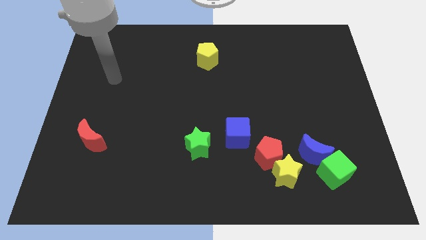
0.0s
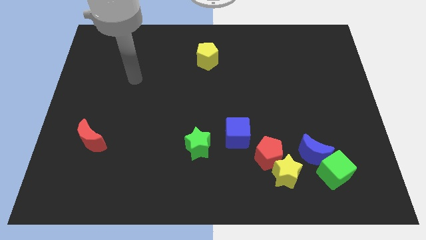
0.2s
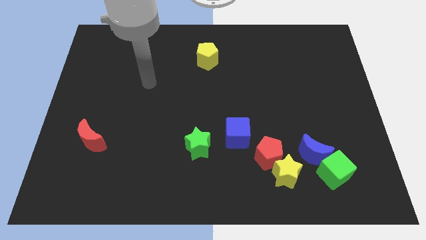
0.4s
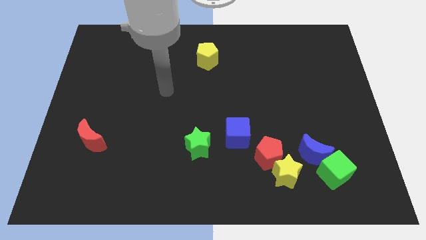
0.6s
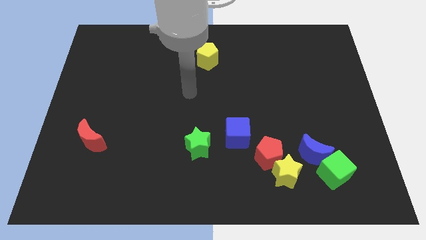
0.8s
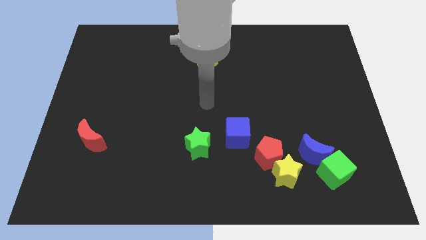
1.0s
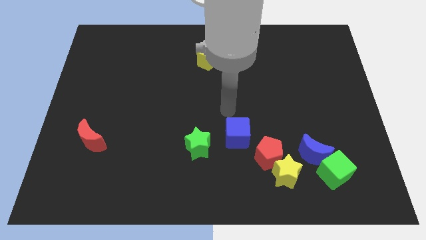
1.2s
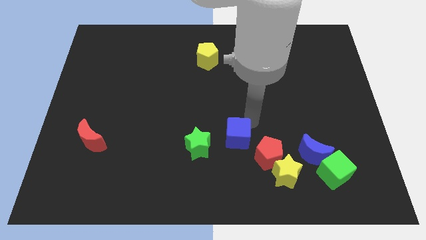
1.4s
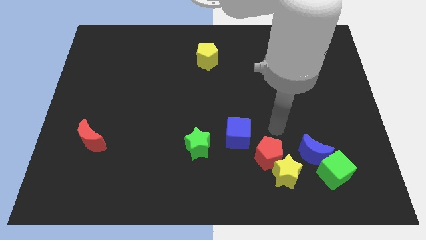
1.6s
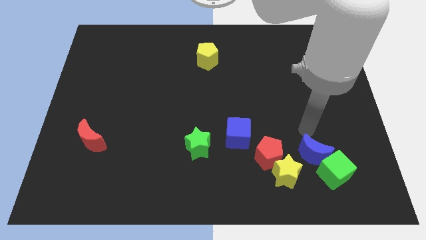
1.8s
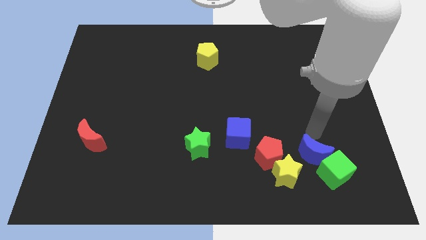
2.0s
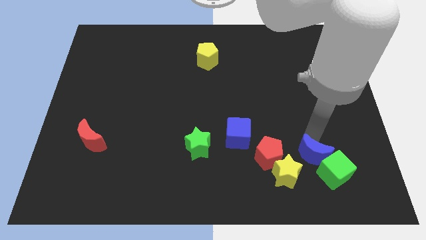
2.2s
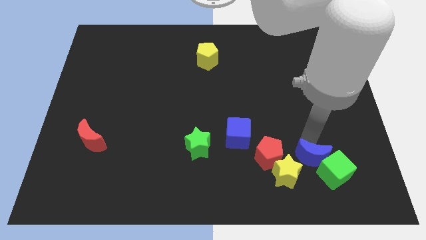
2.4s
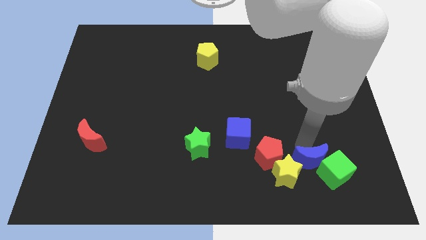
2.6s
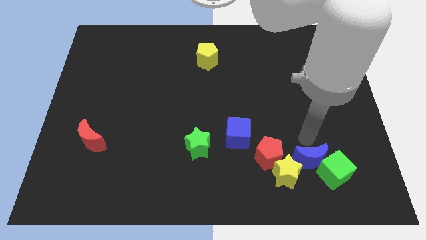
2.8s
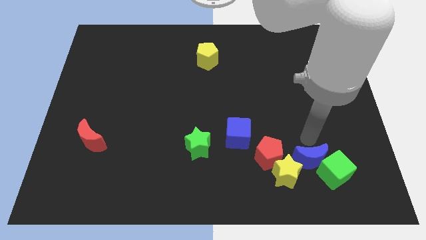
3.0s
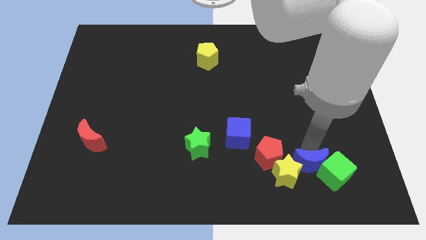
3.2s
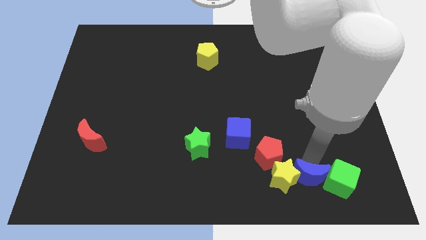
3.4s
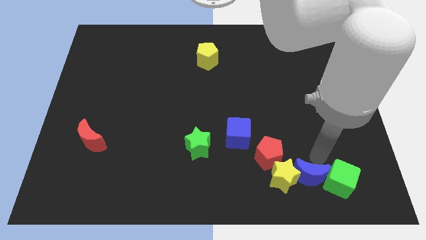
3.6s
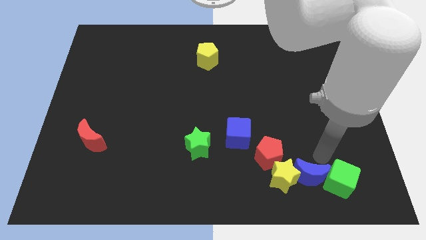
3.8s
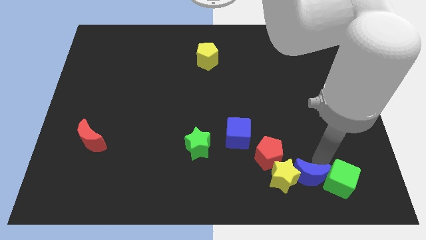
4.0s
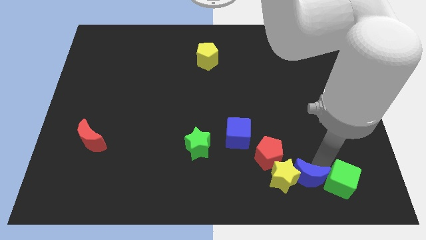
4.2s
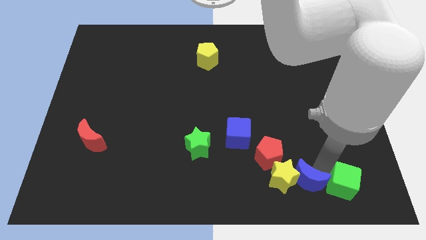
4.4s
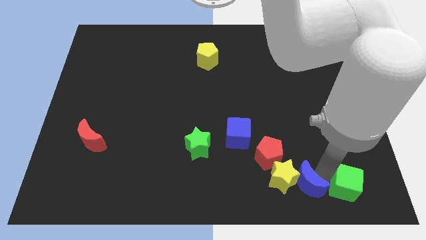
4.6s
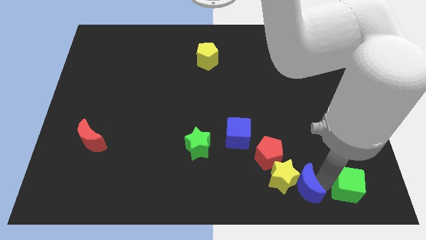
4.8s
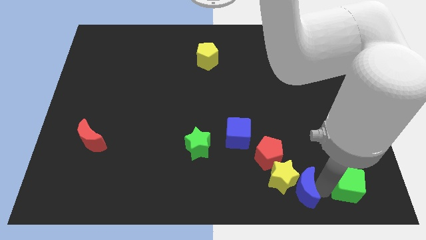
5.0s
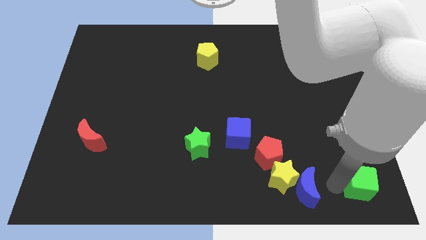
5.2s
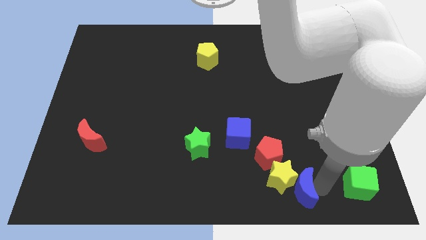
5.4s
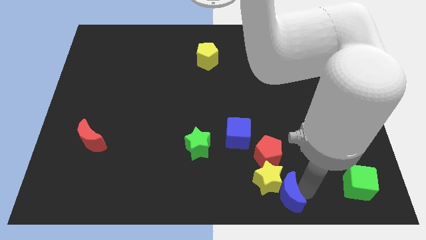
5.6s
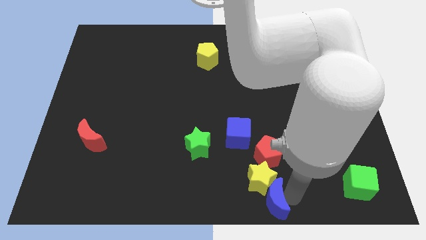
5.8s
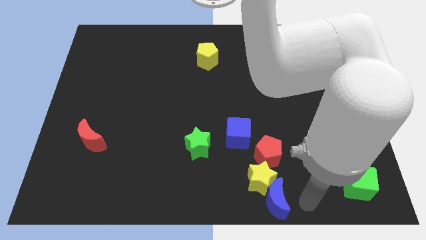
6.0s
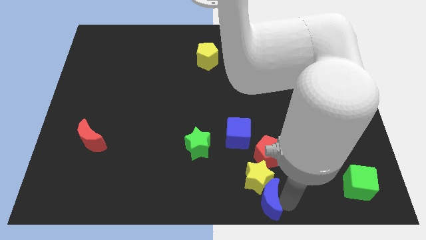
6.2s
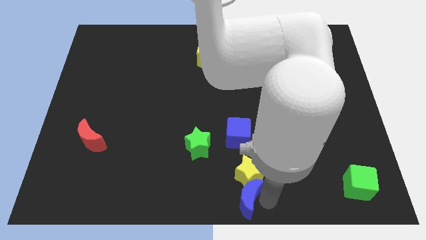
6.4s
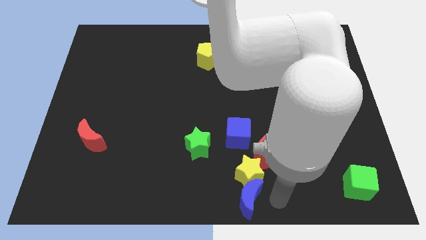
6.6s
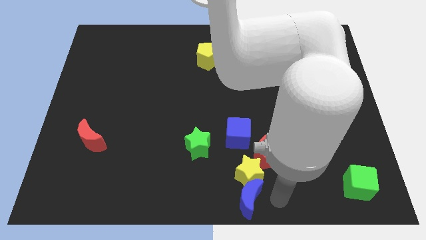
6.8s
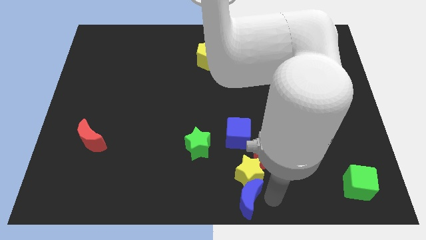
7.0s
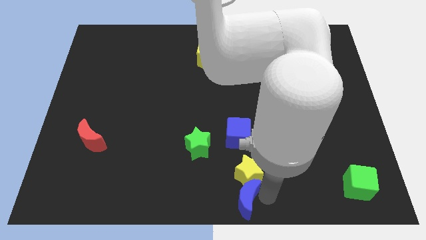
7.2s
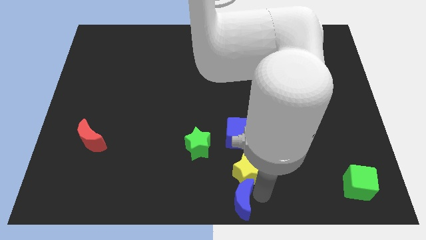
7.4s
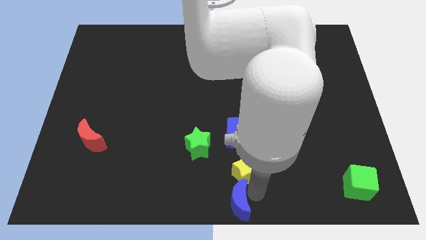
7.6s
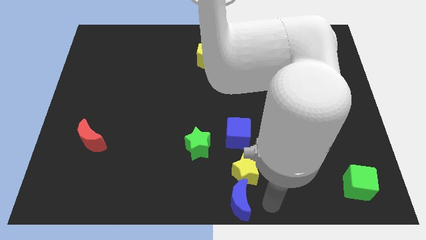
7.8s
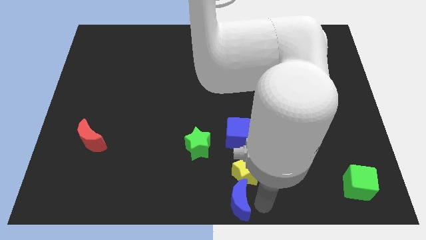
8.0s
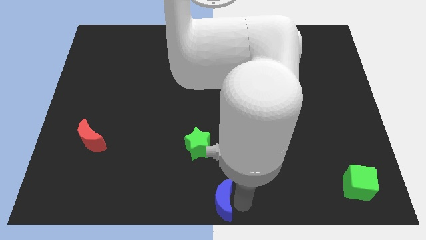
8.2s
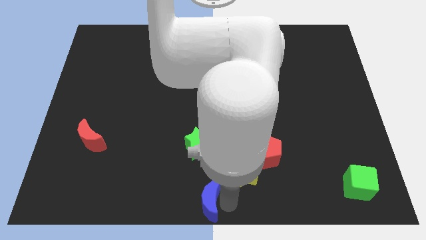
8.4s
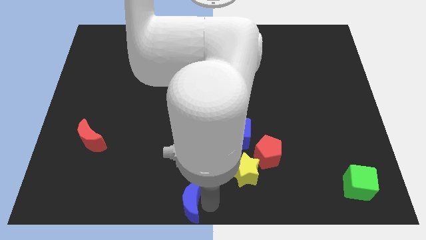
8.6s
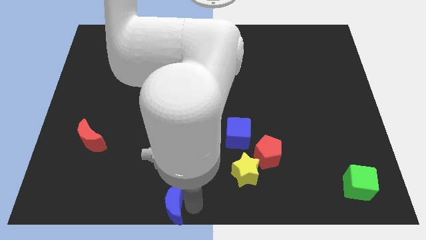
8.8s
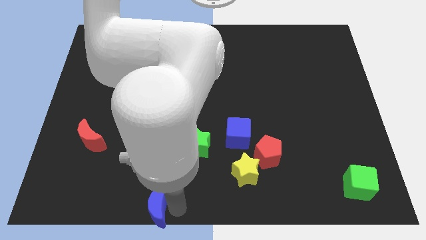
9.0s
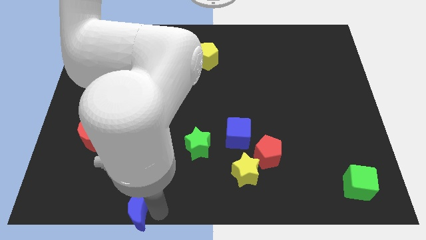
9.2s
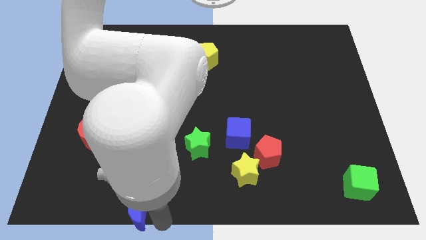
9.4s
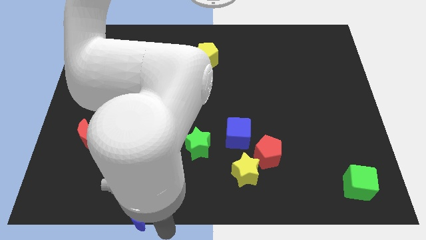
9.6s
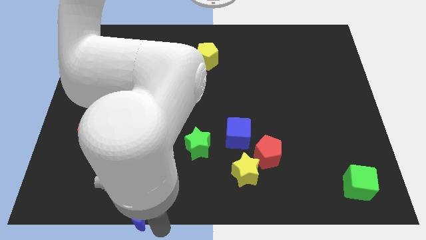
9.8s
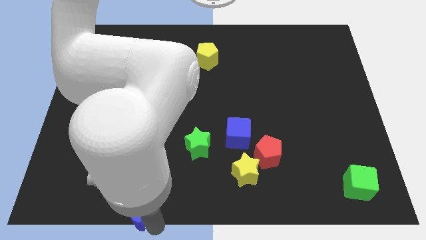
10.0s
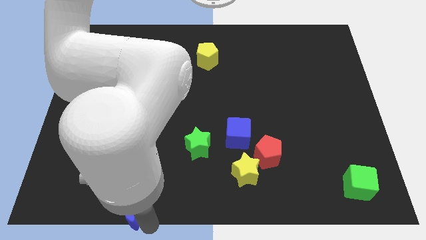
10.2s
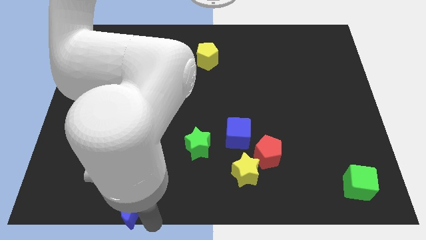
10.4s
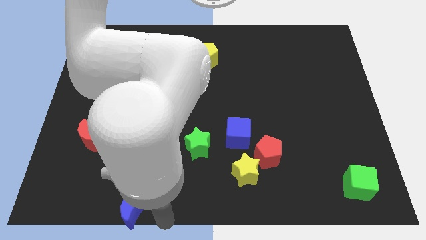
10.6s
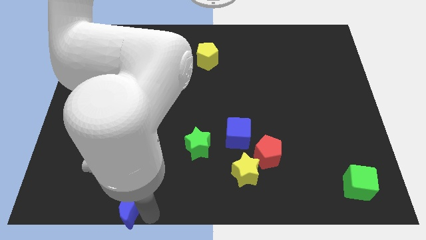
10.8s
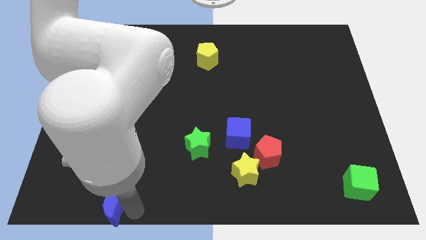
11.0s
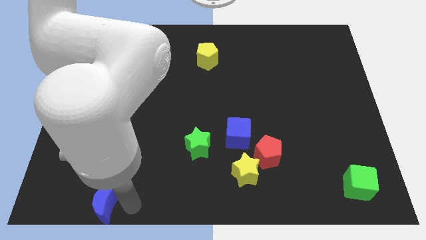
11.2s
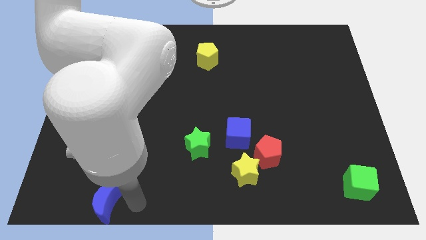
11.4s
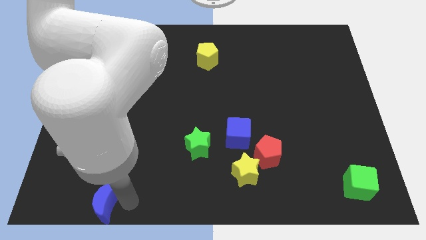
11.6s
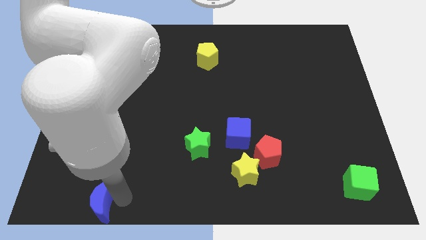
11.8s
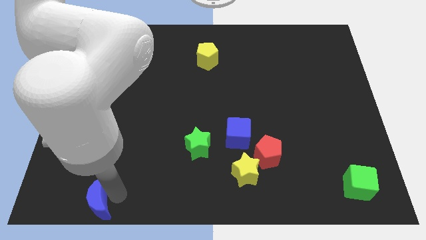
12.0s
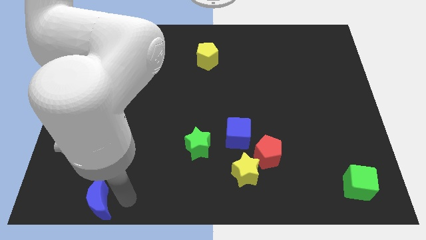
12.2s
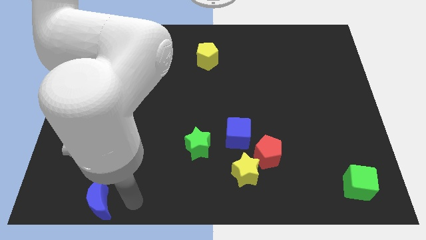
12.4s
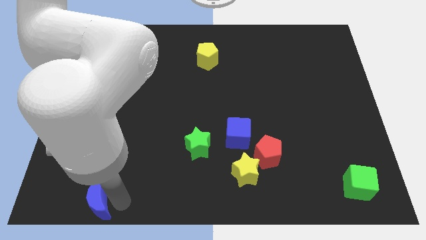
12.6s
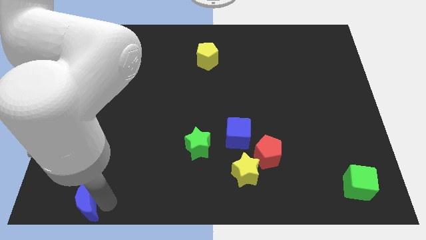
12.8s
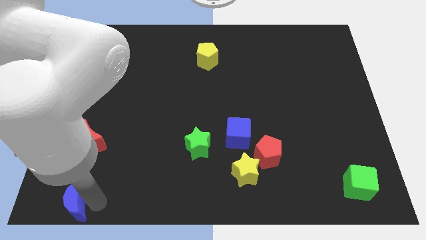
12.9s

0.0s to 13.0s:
slide the blue moon to the lower left corner
